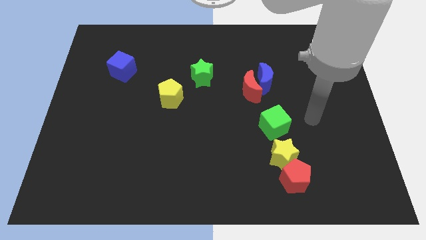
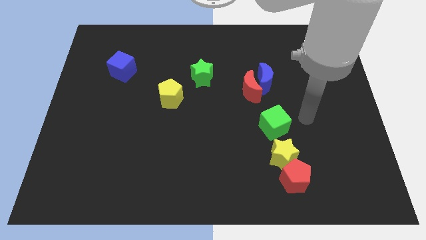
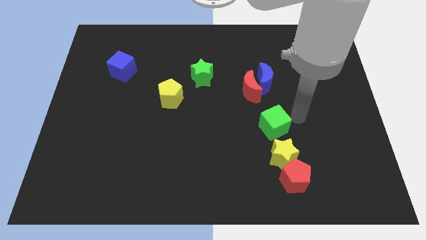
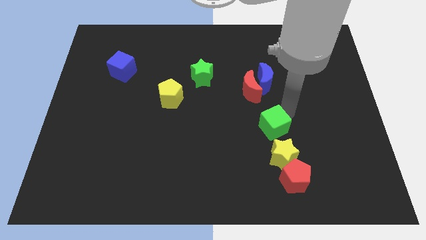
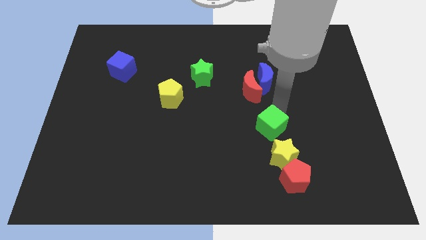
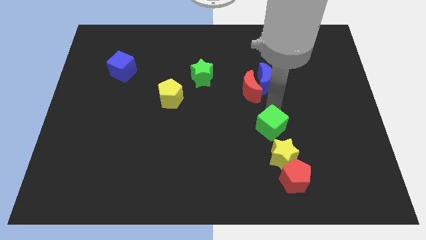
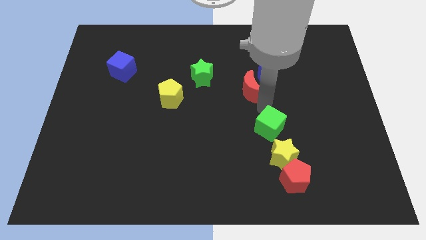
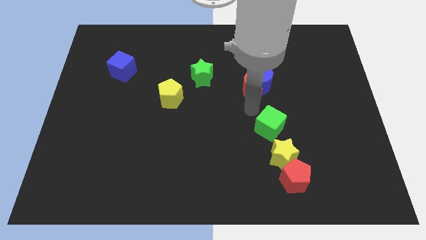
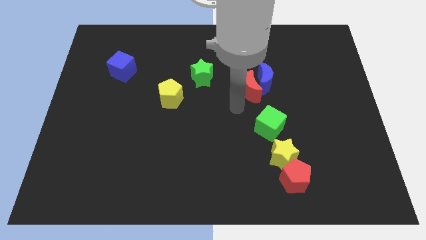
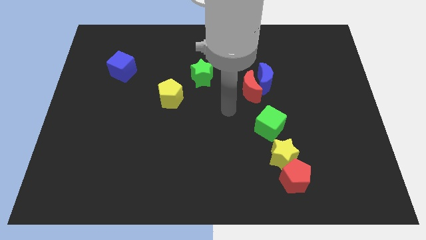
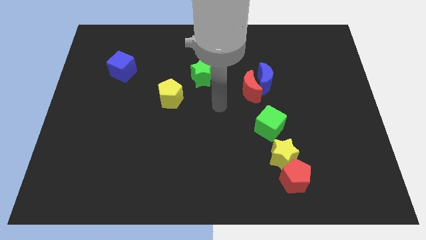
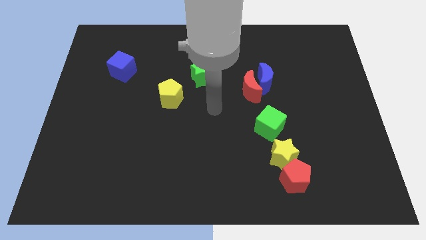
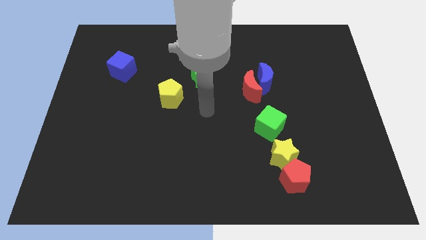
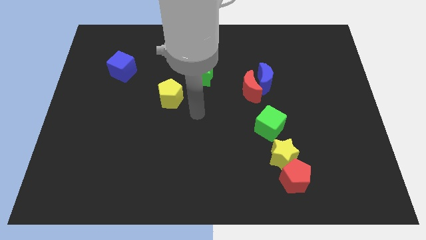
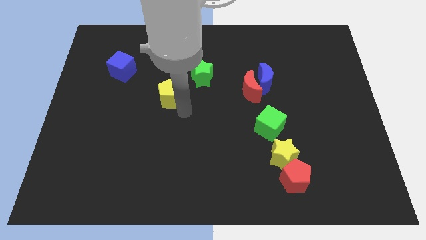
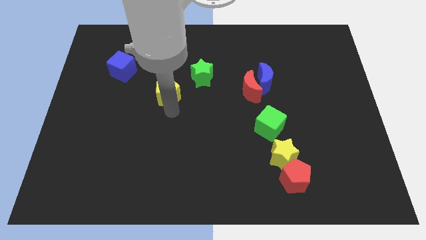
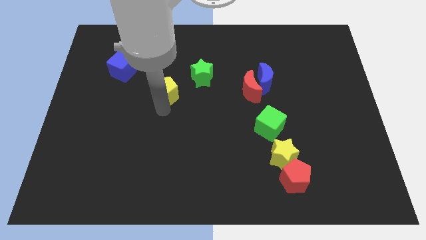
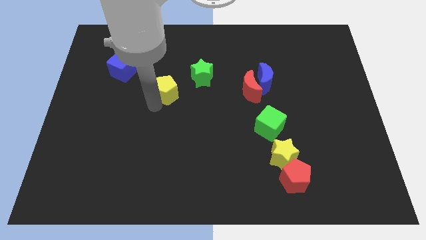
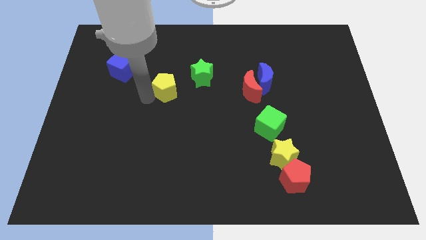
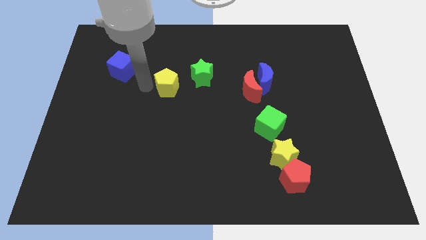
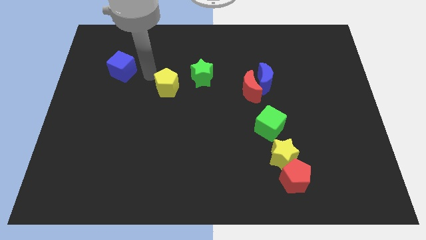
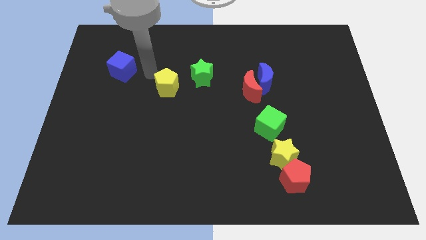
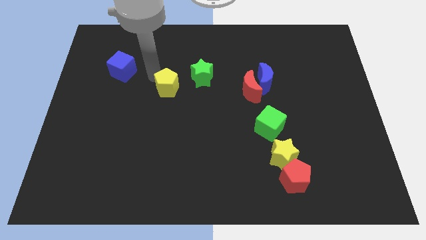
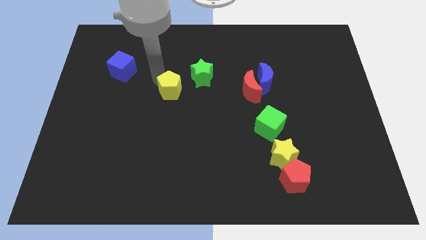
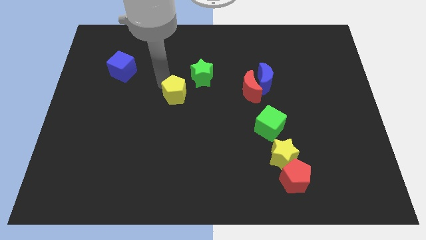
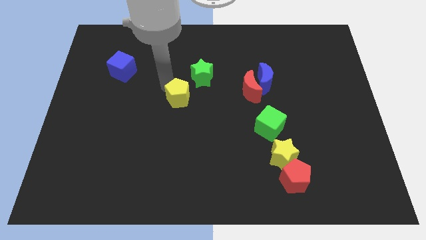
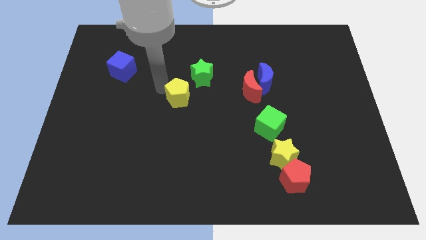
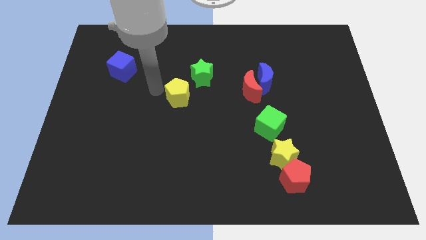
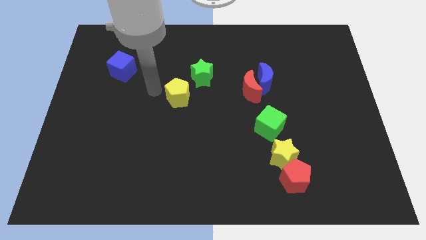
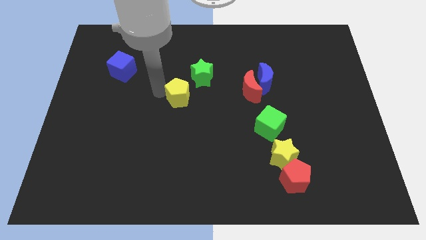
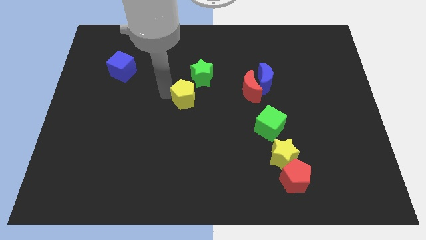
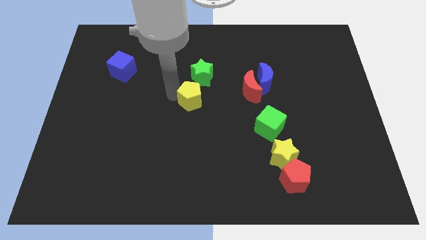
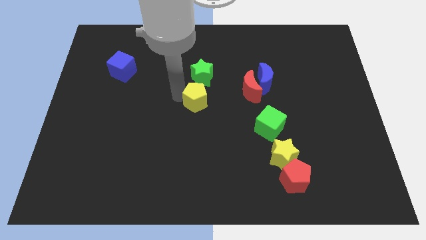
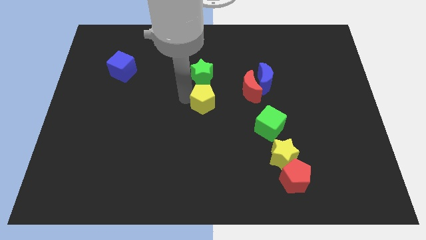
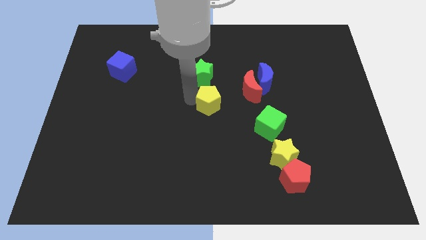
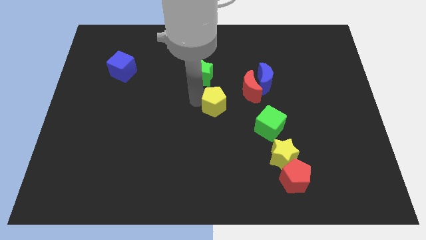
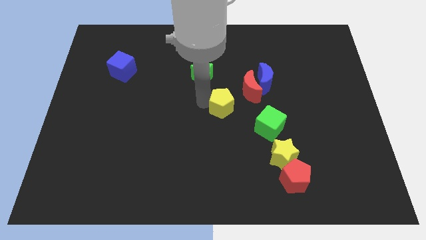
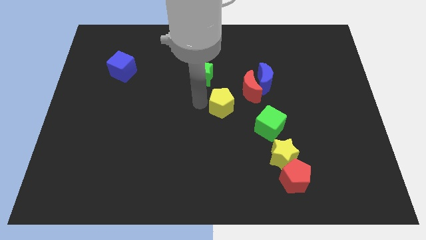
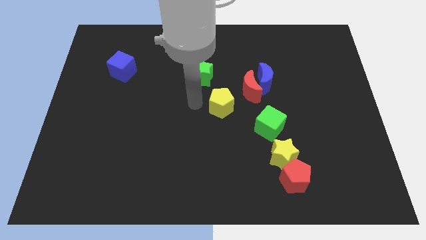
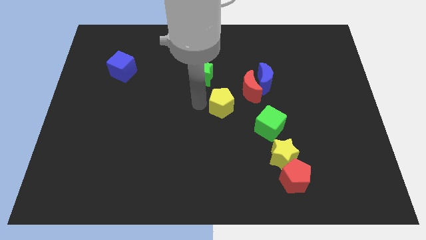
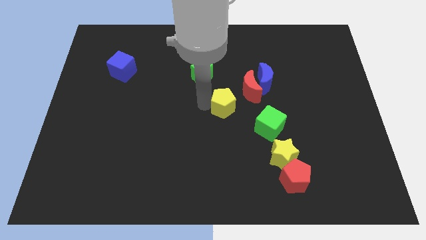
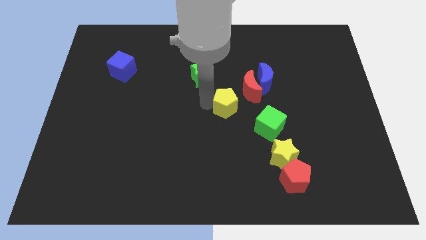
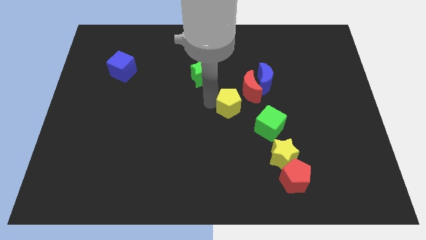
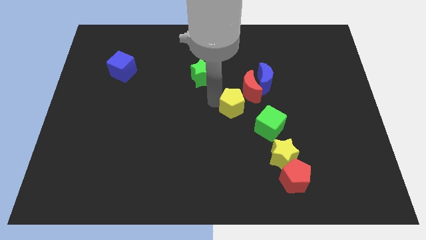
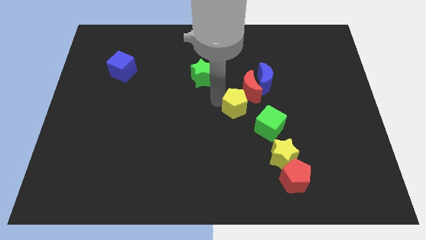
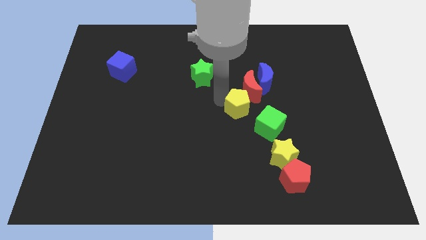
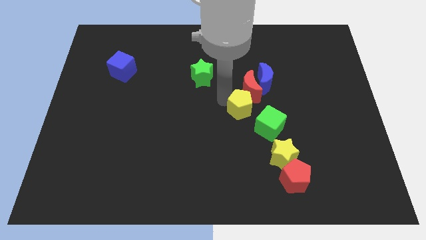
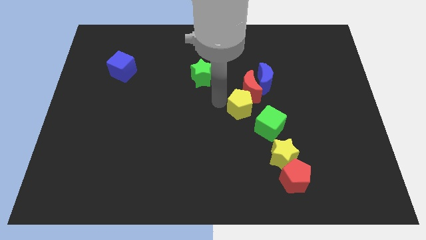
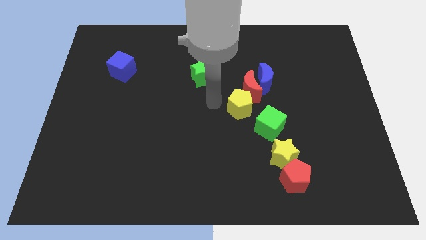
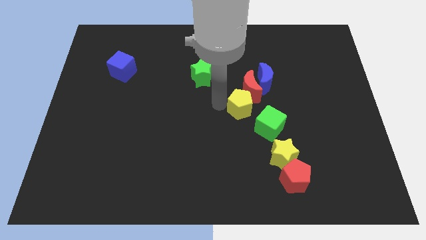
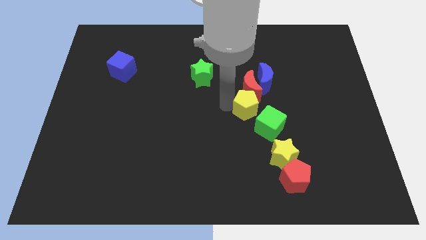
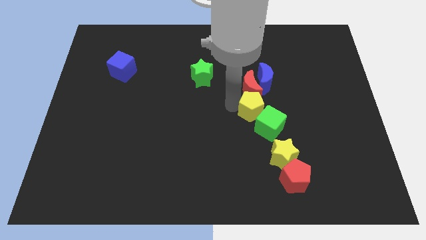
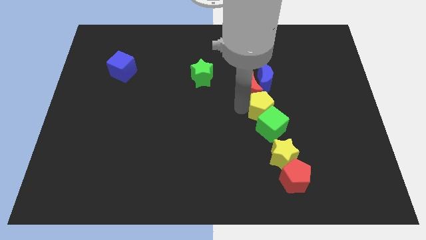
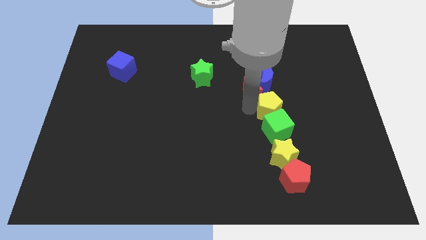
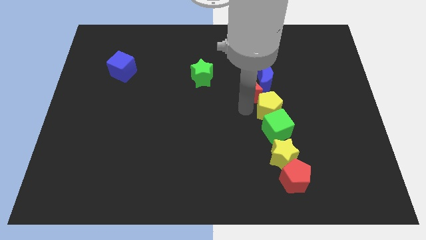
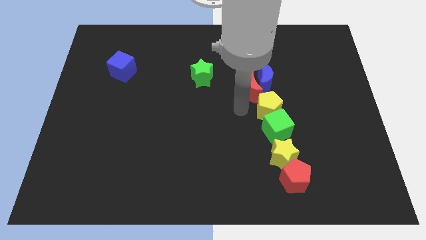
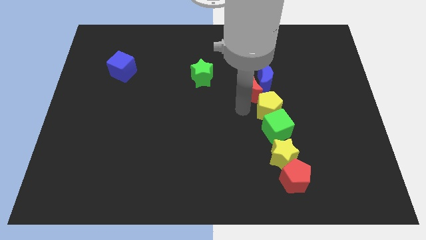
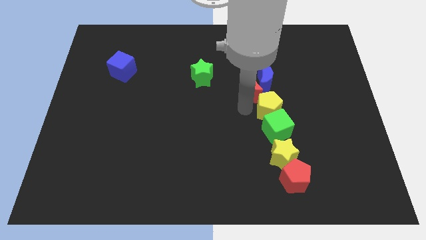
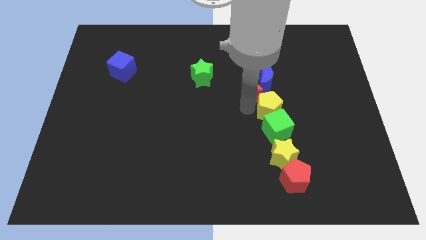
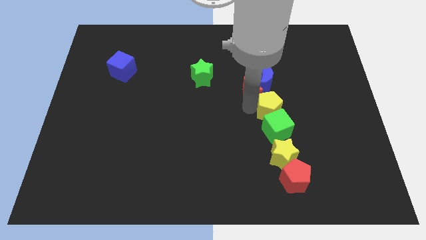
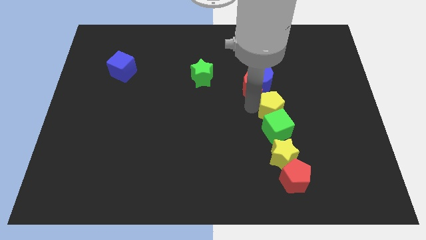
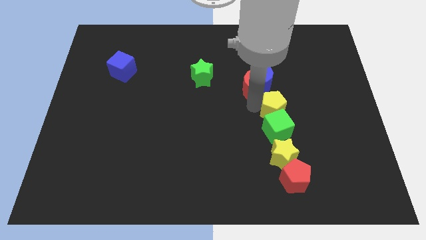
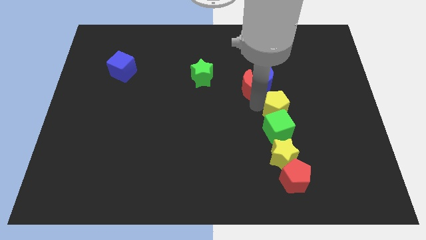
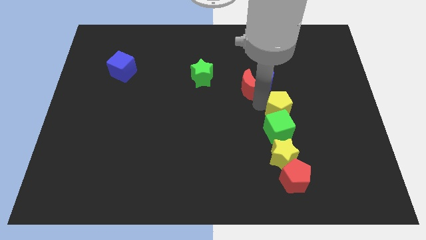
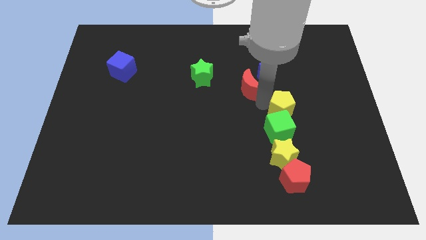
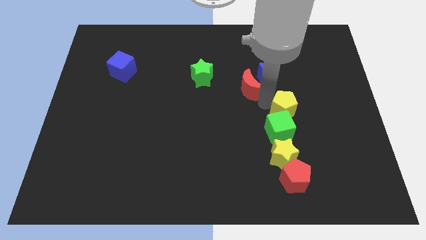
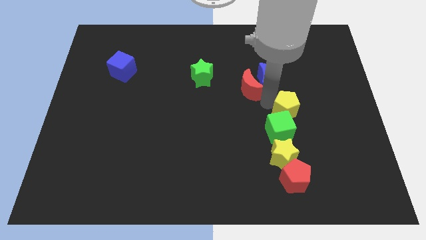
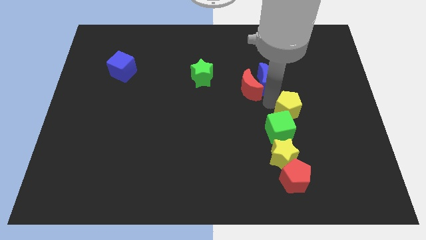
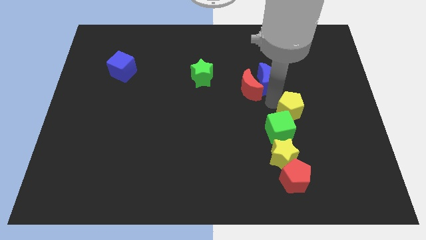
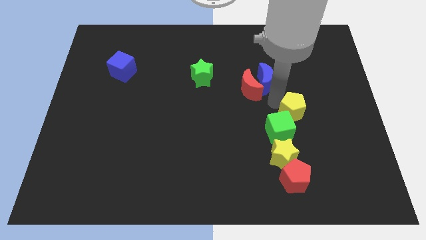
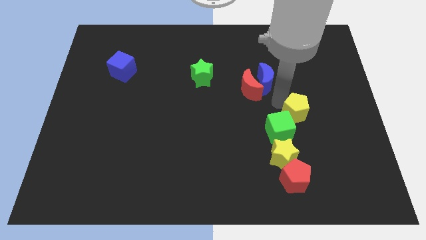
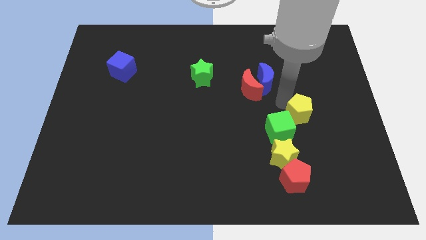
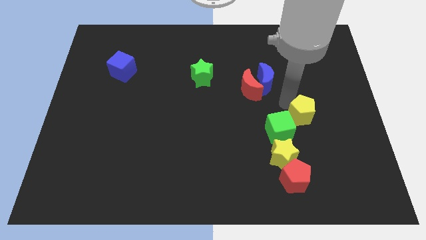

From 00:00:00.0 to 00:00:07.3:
push the yellow pentagon right of the green cube
